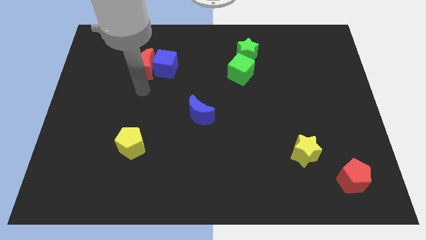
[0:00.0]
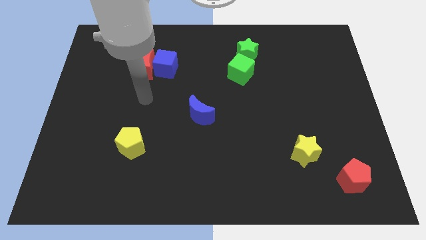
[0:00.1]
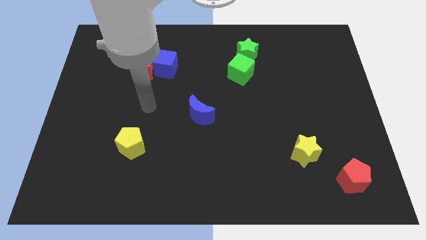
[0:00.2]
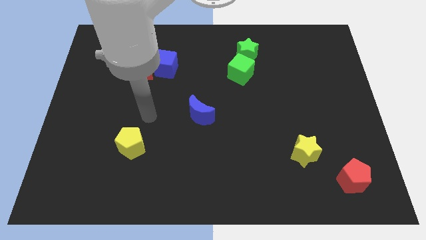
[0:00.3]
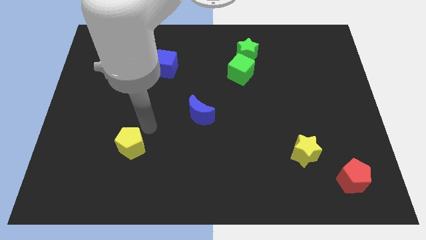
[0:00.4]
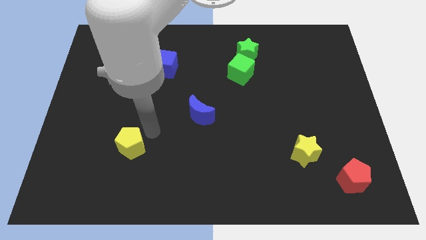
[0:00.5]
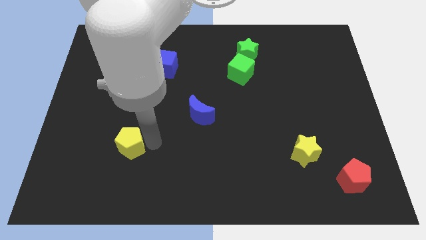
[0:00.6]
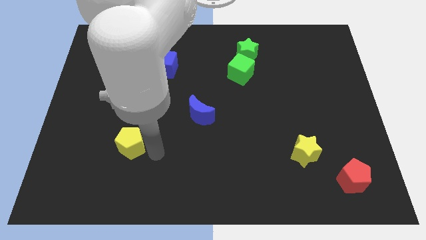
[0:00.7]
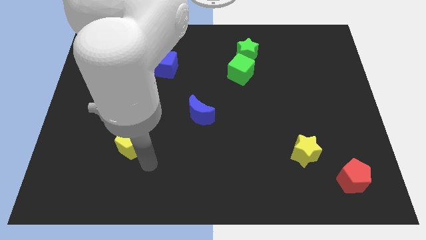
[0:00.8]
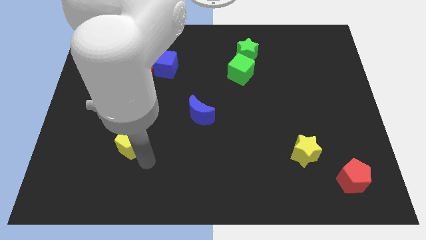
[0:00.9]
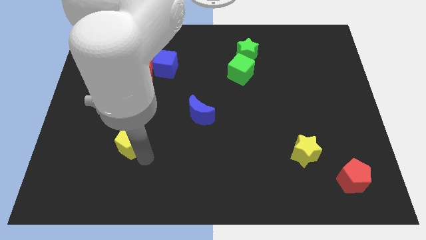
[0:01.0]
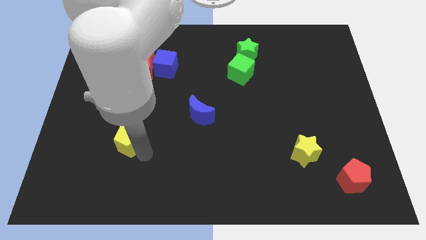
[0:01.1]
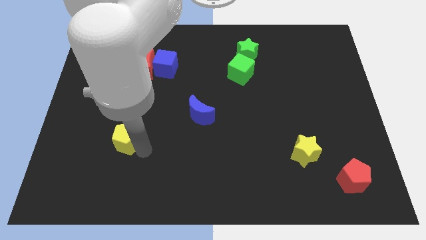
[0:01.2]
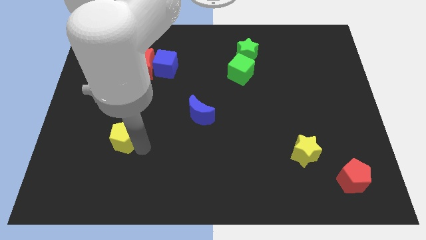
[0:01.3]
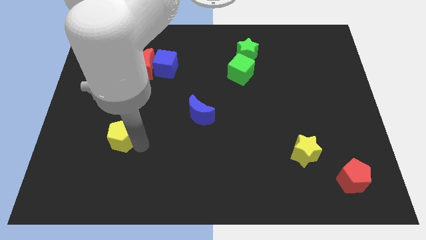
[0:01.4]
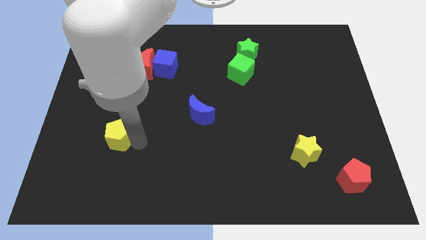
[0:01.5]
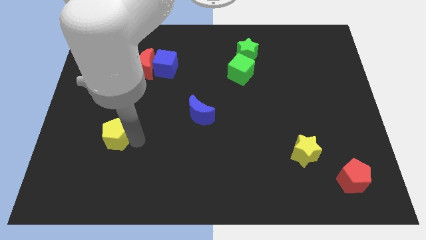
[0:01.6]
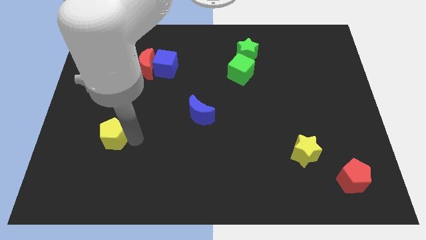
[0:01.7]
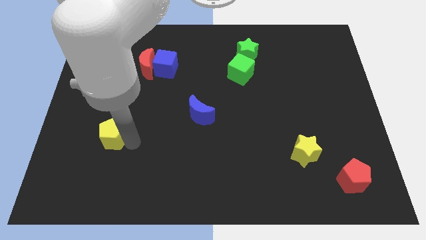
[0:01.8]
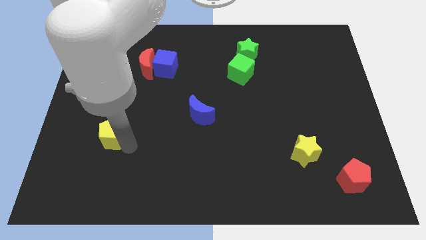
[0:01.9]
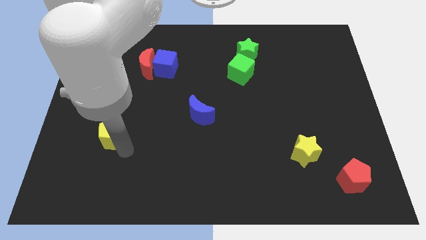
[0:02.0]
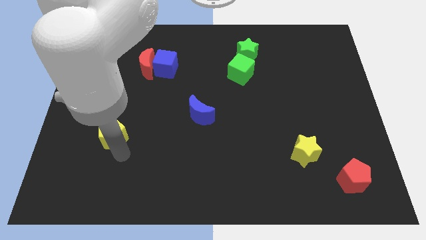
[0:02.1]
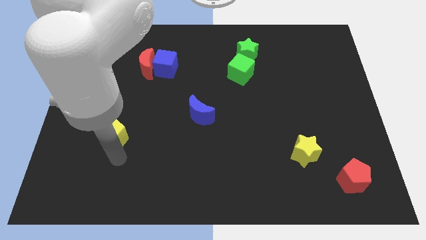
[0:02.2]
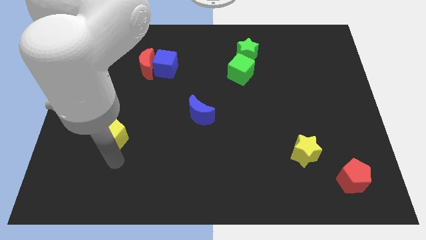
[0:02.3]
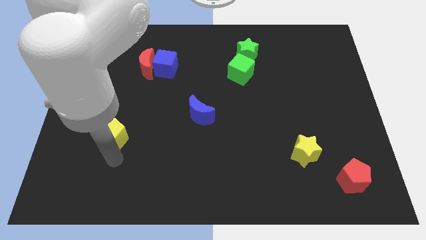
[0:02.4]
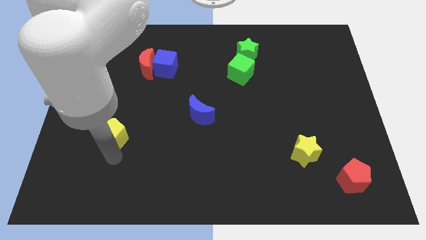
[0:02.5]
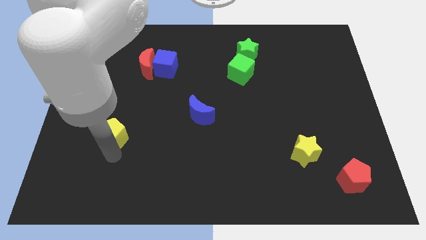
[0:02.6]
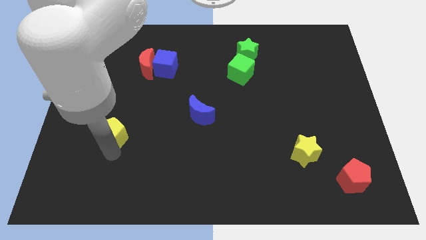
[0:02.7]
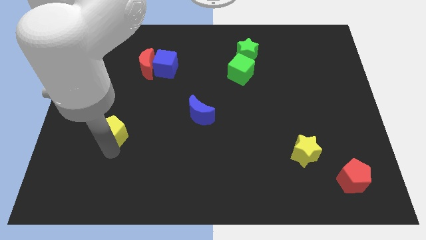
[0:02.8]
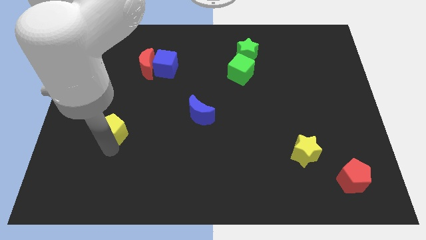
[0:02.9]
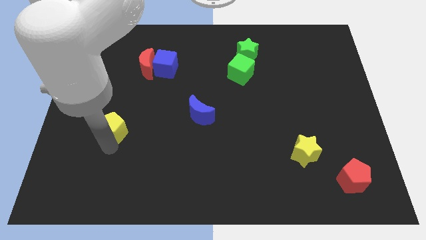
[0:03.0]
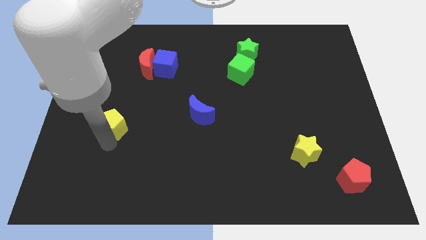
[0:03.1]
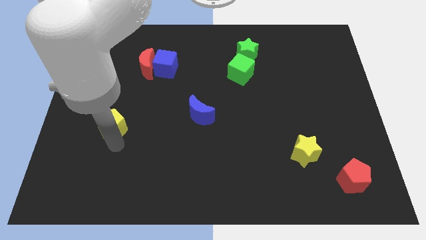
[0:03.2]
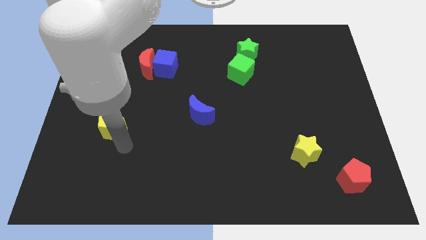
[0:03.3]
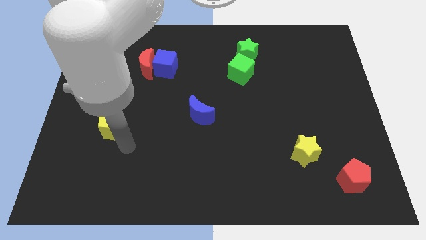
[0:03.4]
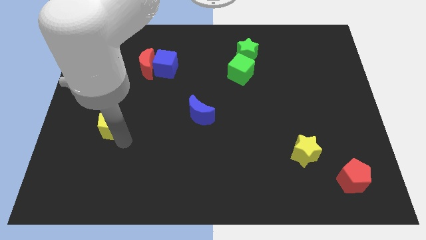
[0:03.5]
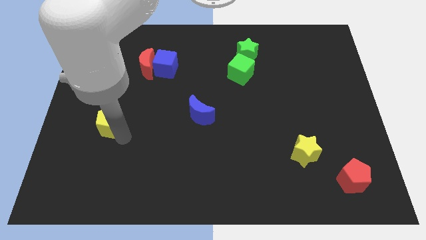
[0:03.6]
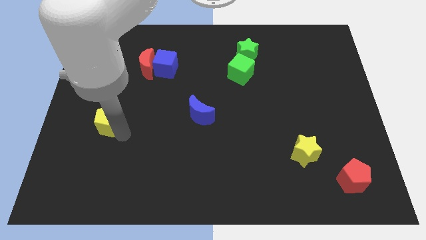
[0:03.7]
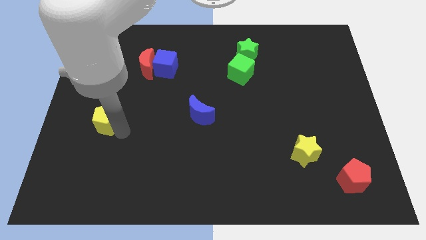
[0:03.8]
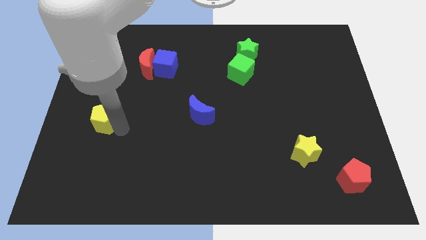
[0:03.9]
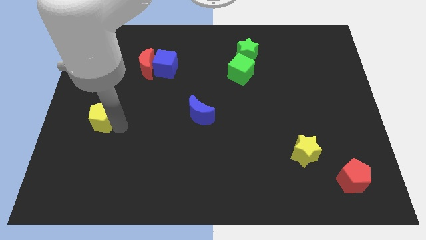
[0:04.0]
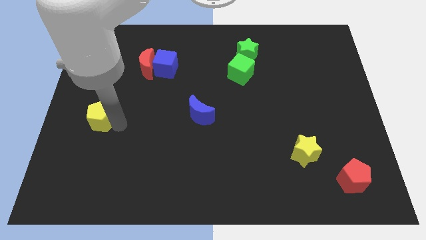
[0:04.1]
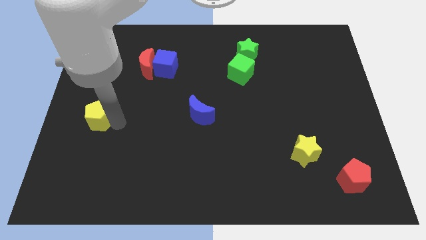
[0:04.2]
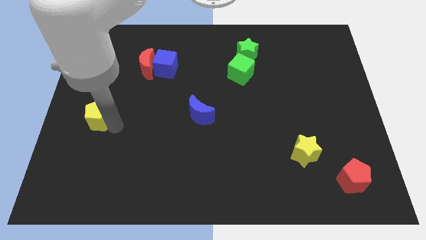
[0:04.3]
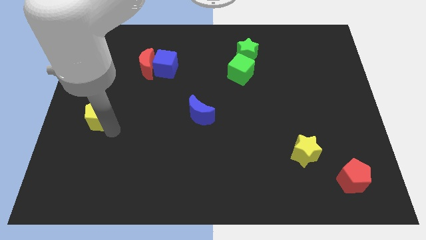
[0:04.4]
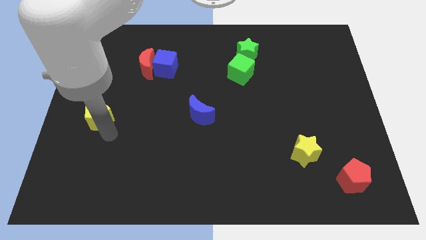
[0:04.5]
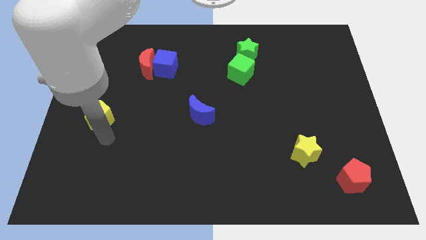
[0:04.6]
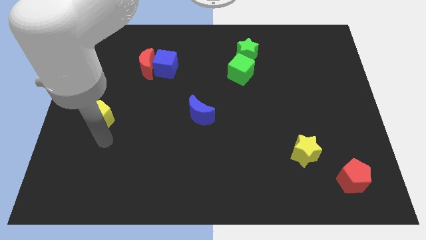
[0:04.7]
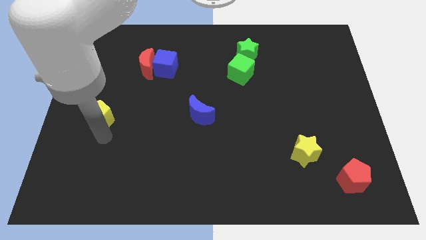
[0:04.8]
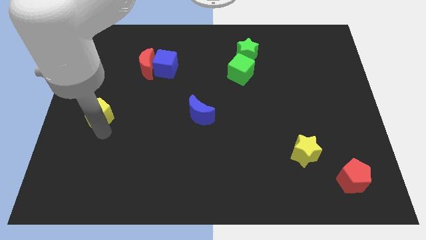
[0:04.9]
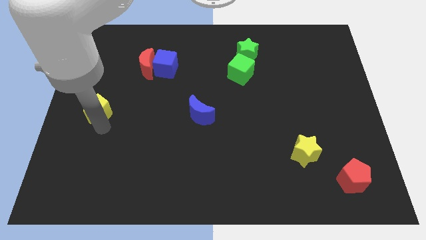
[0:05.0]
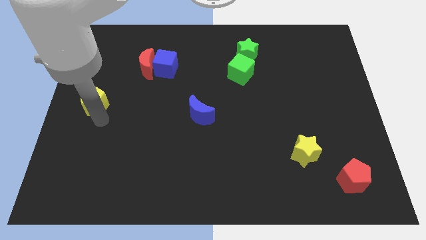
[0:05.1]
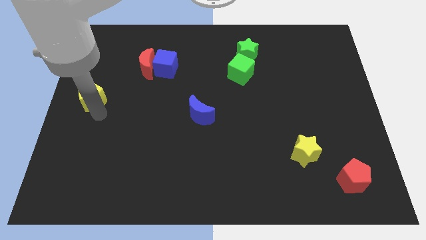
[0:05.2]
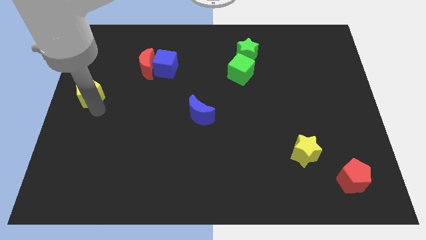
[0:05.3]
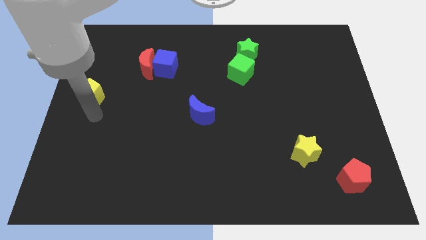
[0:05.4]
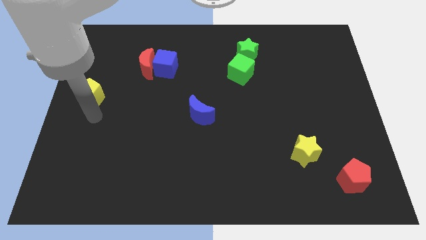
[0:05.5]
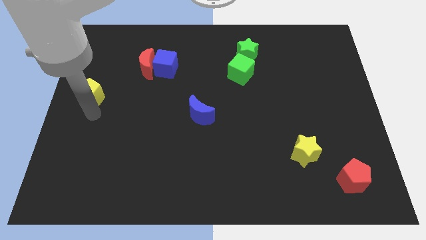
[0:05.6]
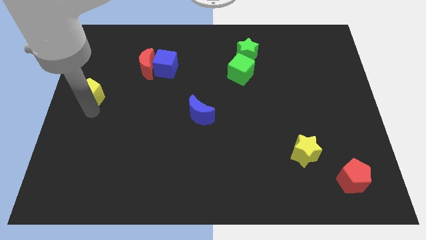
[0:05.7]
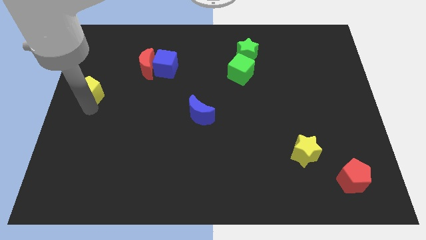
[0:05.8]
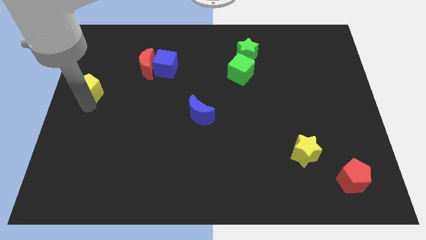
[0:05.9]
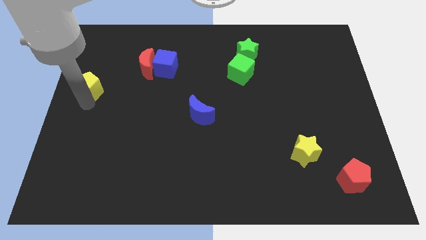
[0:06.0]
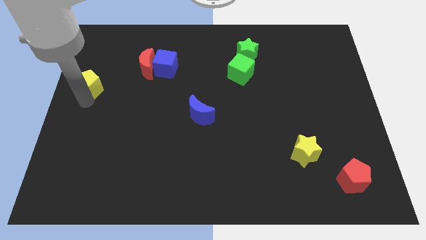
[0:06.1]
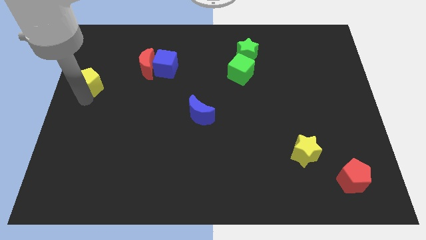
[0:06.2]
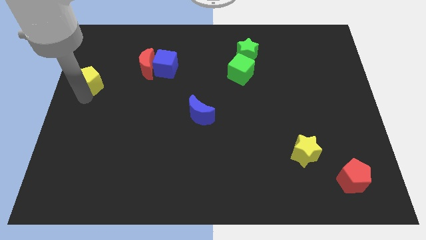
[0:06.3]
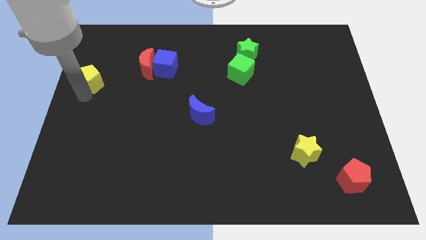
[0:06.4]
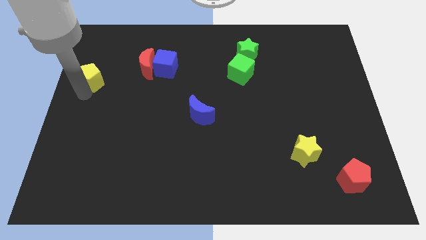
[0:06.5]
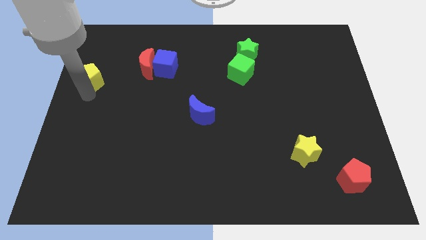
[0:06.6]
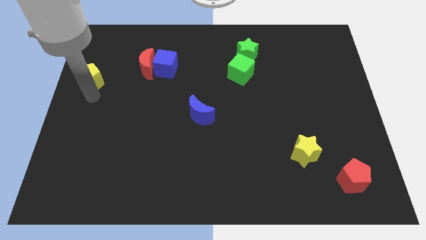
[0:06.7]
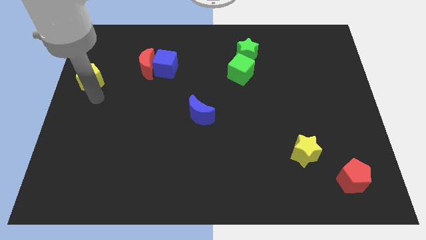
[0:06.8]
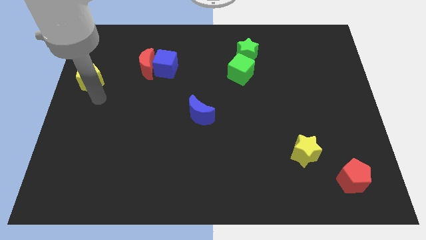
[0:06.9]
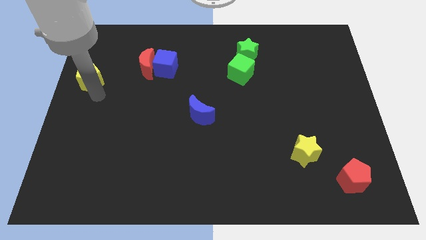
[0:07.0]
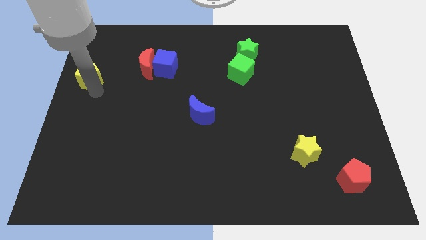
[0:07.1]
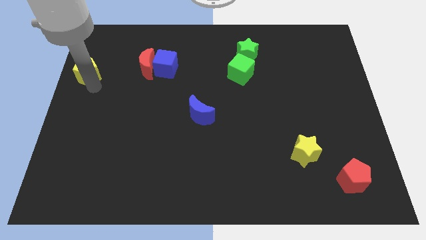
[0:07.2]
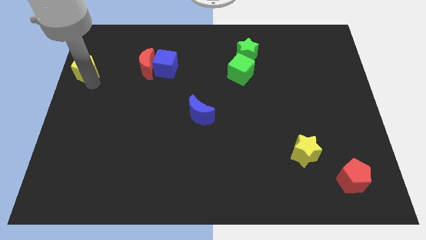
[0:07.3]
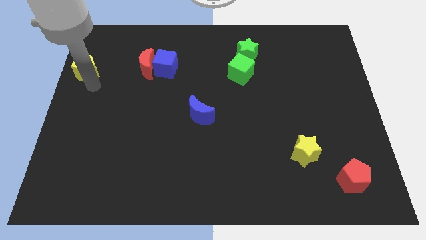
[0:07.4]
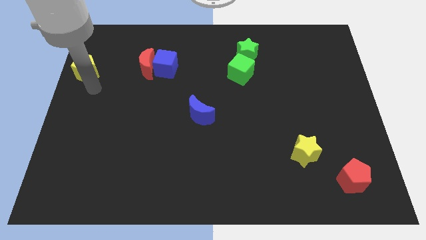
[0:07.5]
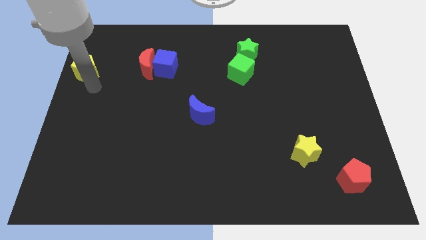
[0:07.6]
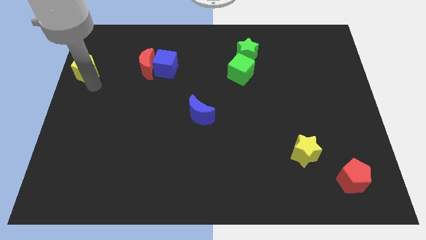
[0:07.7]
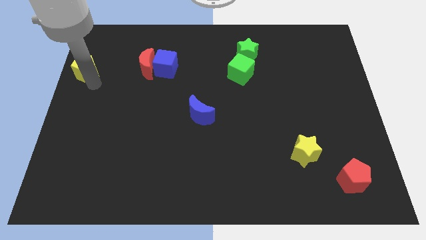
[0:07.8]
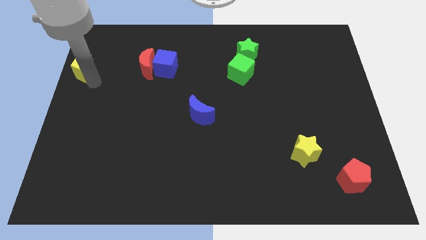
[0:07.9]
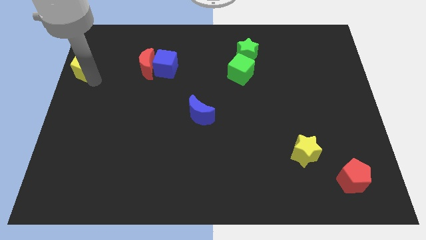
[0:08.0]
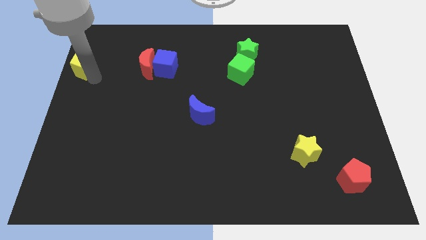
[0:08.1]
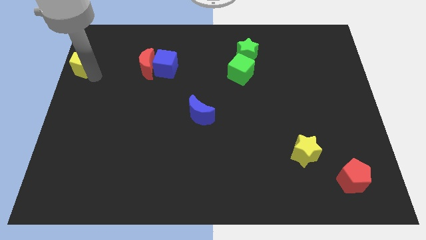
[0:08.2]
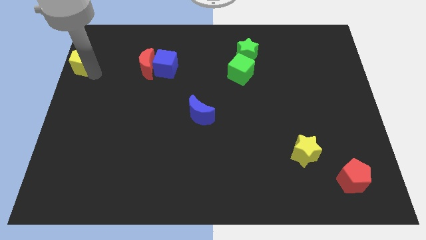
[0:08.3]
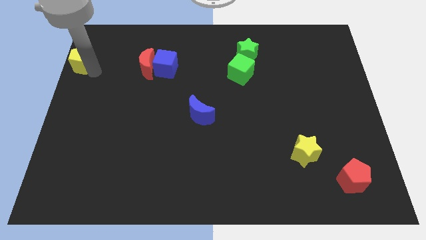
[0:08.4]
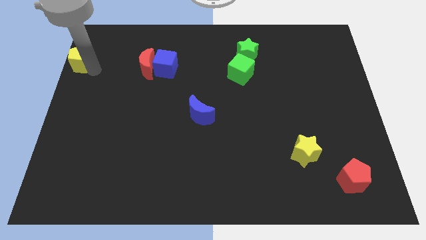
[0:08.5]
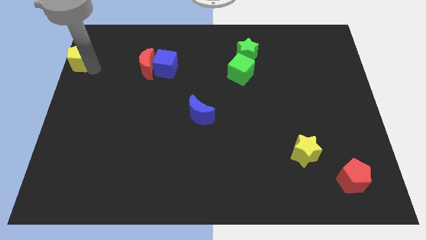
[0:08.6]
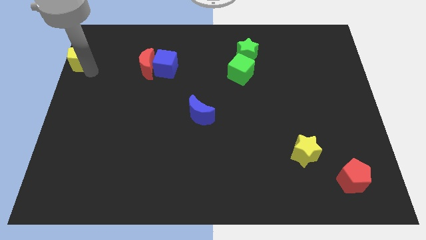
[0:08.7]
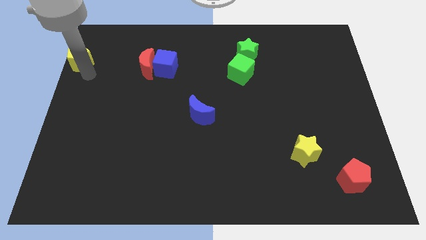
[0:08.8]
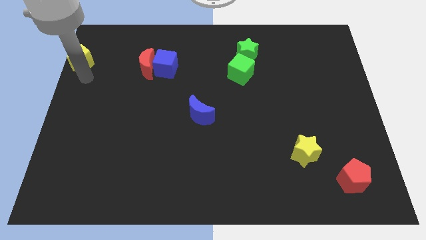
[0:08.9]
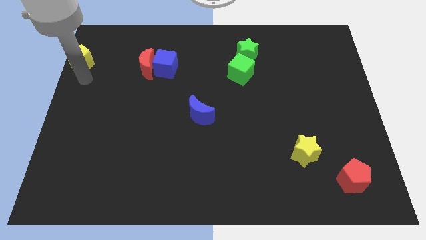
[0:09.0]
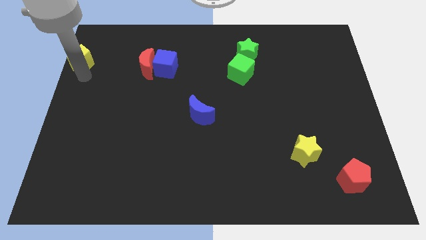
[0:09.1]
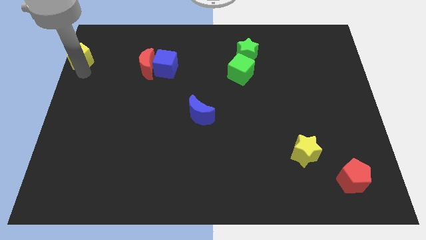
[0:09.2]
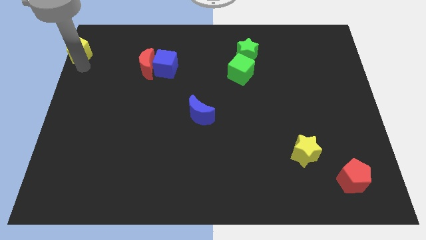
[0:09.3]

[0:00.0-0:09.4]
put the yellow pentagon to the top left corner
